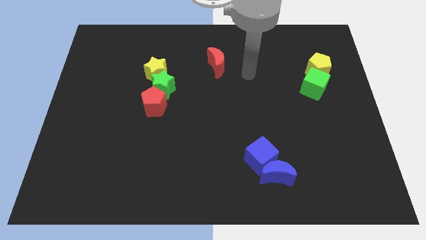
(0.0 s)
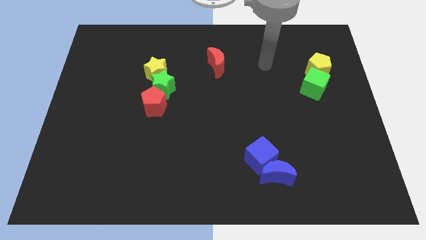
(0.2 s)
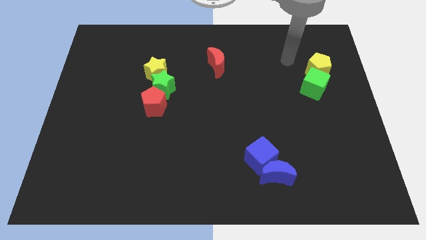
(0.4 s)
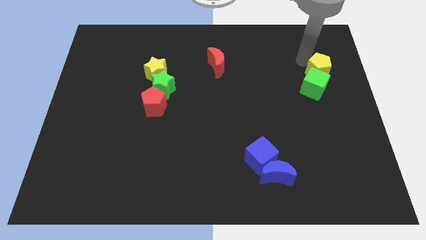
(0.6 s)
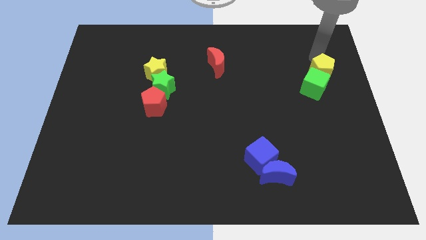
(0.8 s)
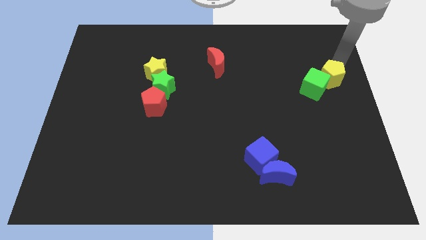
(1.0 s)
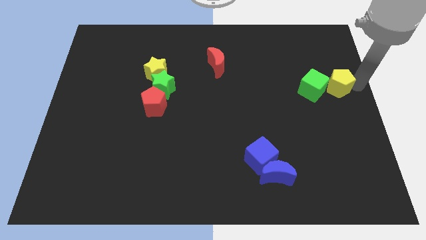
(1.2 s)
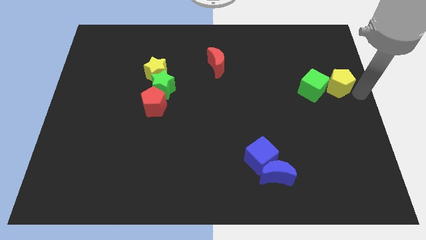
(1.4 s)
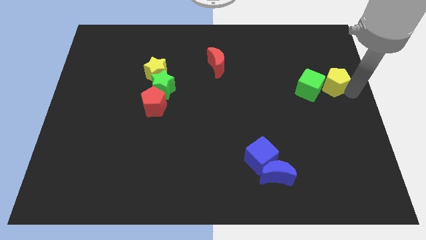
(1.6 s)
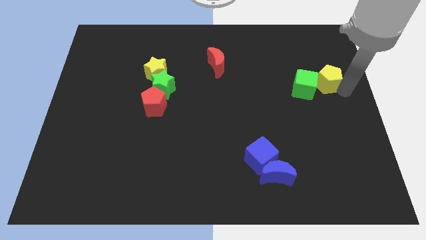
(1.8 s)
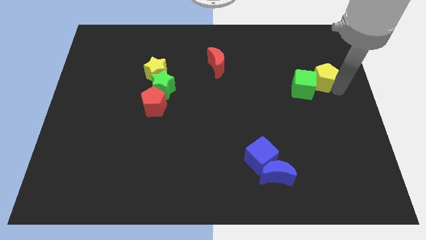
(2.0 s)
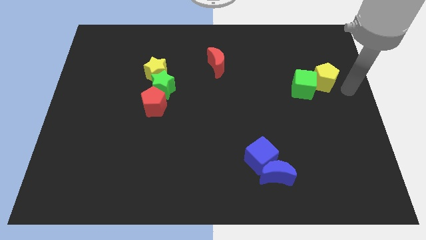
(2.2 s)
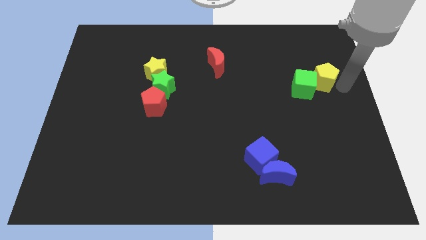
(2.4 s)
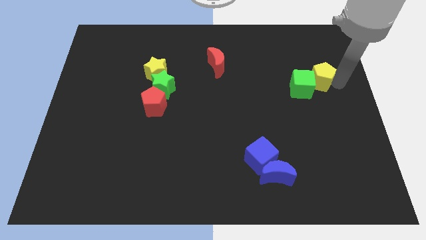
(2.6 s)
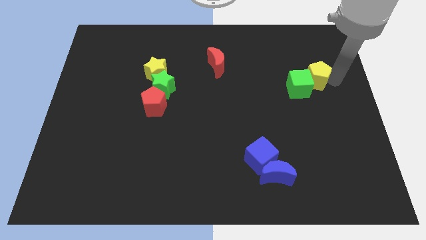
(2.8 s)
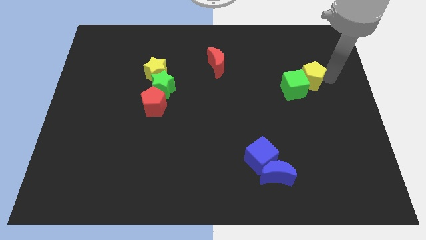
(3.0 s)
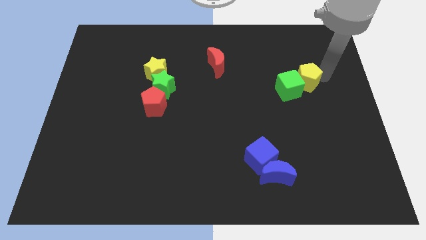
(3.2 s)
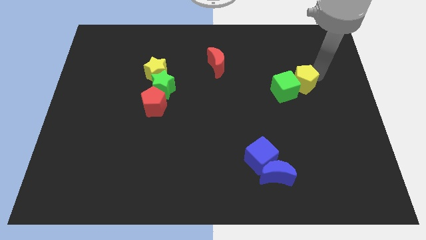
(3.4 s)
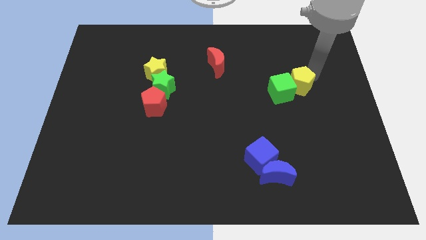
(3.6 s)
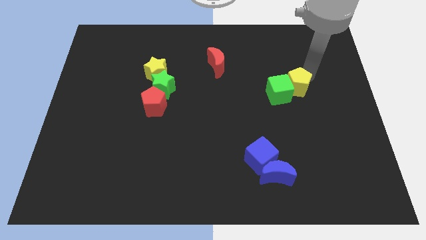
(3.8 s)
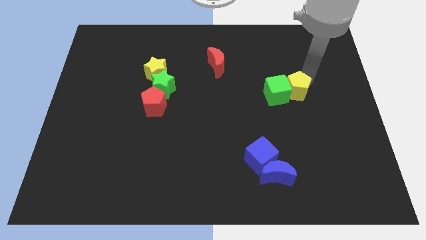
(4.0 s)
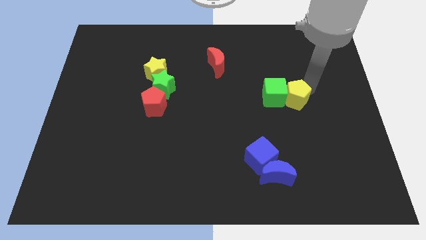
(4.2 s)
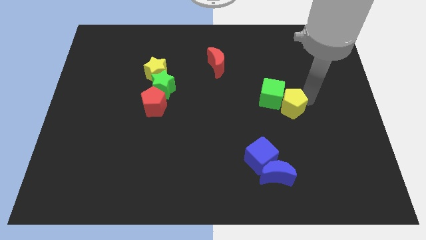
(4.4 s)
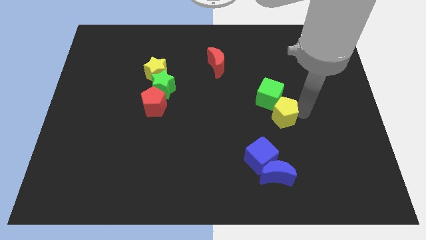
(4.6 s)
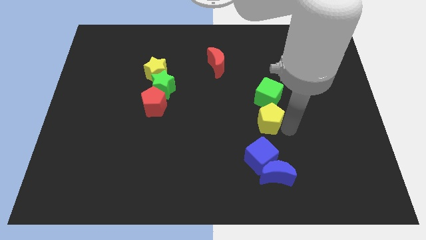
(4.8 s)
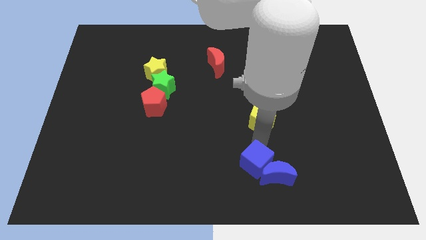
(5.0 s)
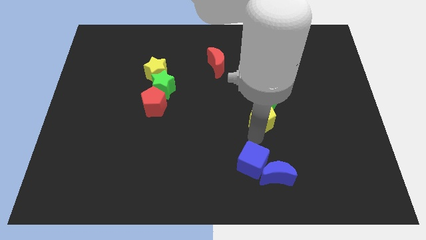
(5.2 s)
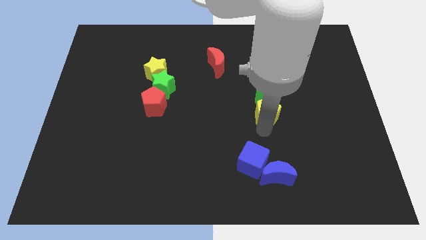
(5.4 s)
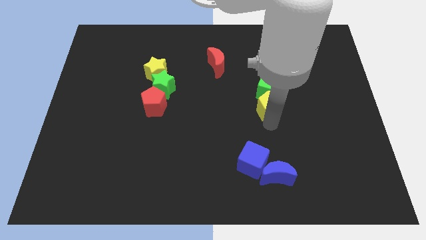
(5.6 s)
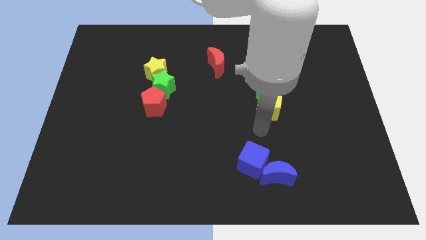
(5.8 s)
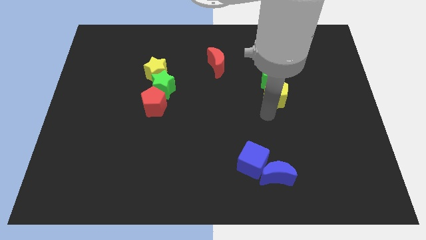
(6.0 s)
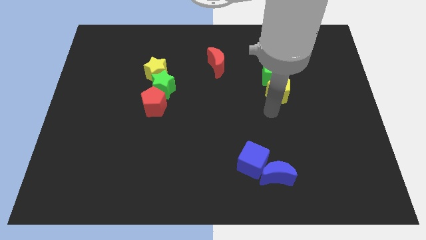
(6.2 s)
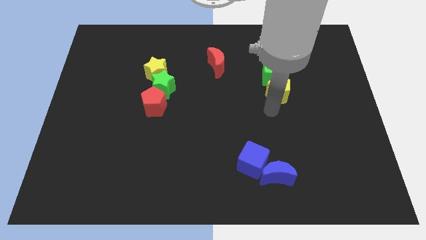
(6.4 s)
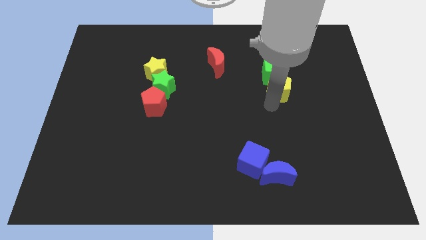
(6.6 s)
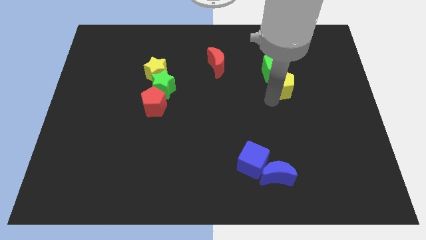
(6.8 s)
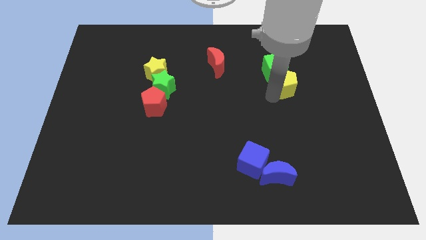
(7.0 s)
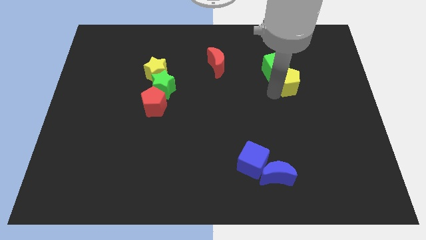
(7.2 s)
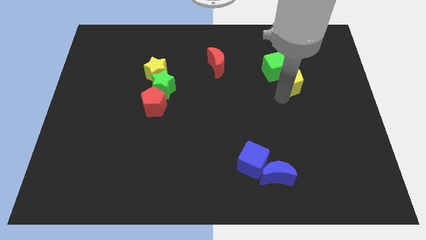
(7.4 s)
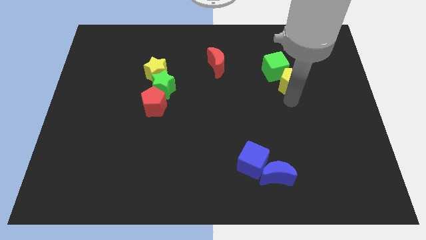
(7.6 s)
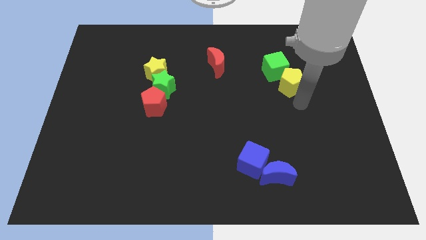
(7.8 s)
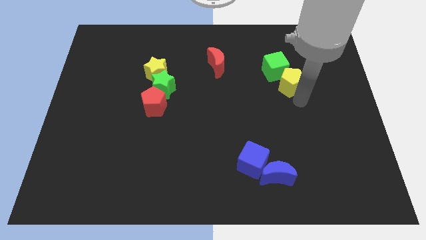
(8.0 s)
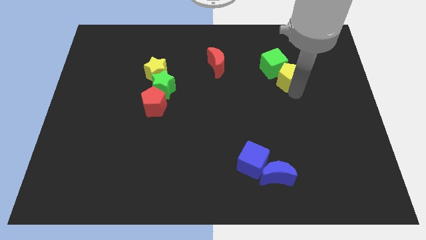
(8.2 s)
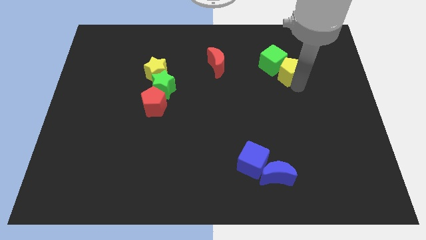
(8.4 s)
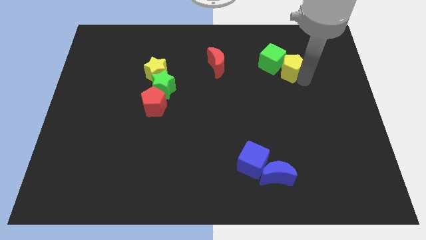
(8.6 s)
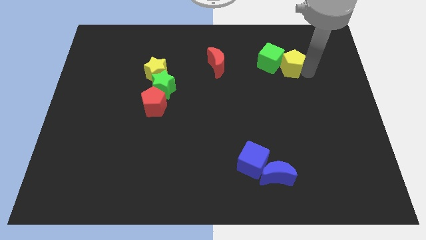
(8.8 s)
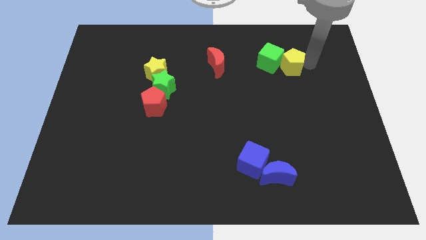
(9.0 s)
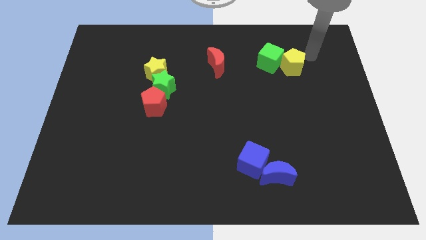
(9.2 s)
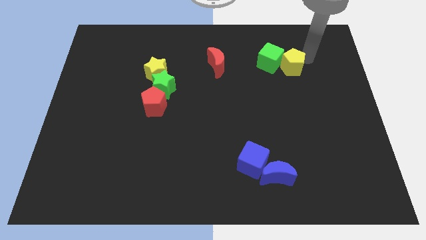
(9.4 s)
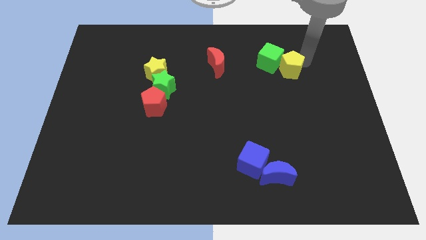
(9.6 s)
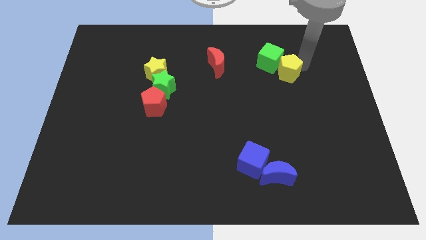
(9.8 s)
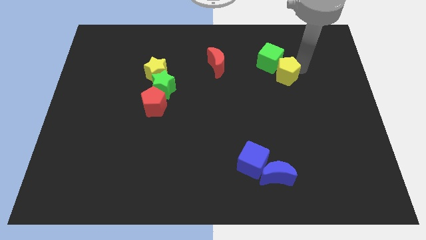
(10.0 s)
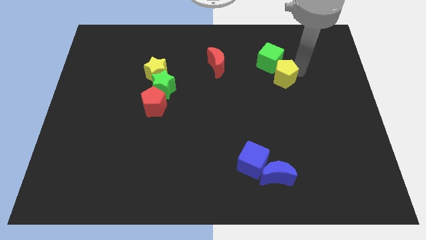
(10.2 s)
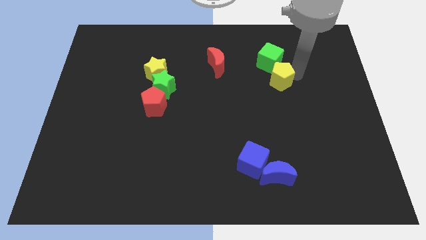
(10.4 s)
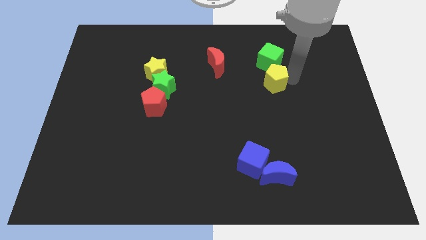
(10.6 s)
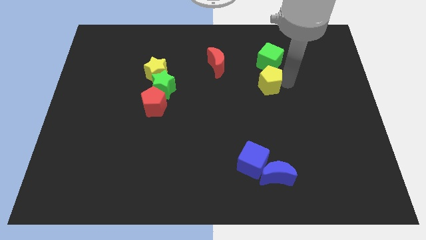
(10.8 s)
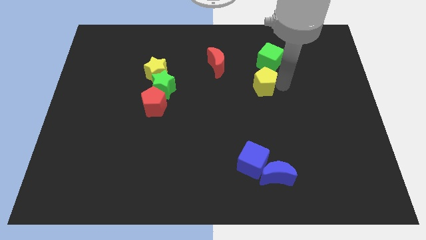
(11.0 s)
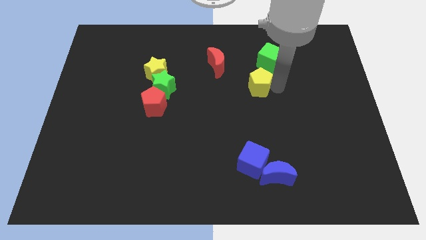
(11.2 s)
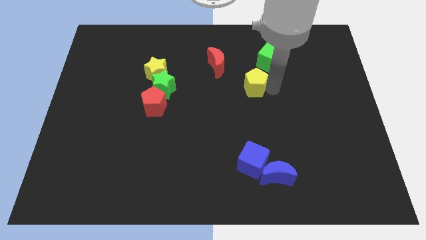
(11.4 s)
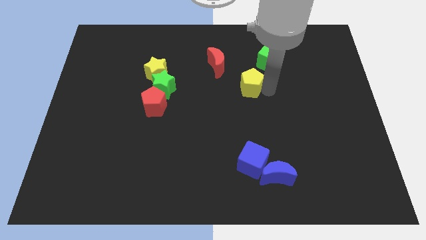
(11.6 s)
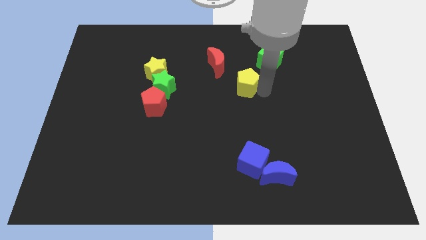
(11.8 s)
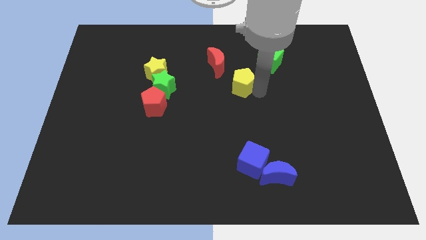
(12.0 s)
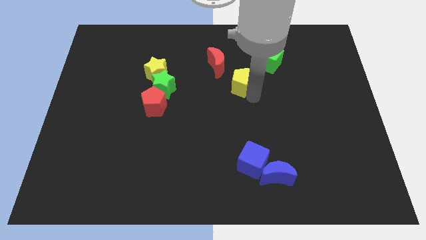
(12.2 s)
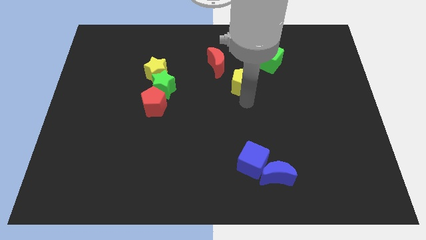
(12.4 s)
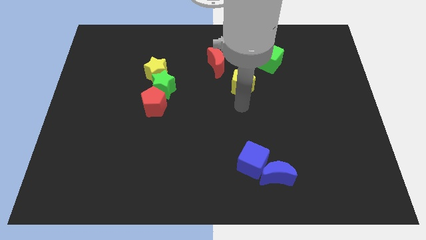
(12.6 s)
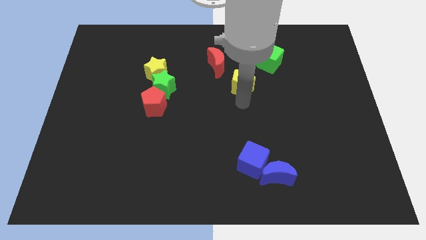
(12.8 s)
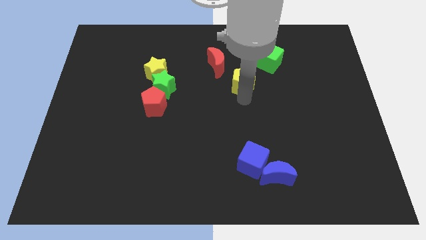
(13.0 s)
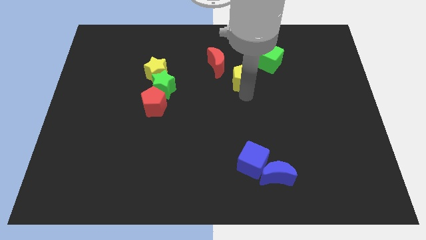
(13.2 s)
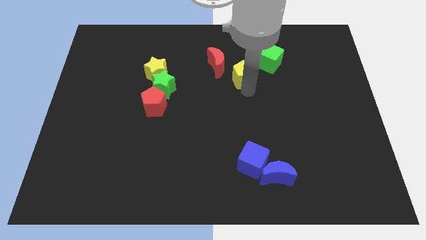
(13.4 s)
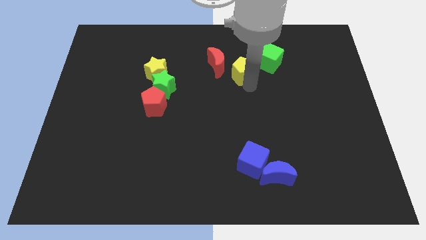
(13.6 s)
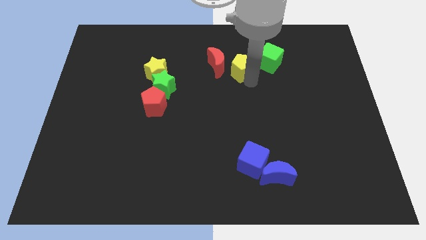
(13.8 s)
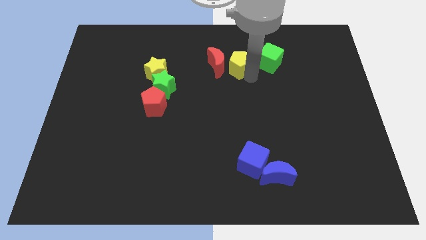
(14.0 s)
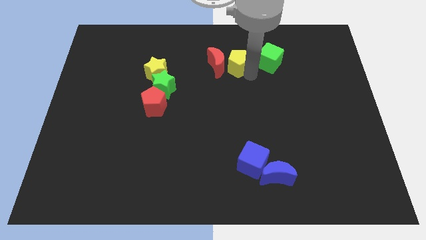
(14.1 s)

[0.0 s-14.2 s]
push the yellow pentagon to the left

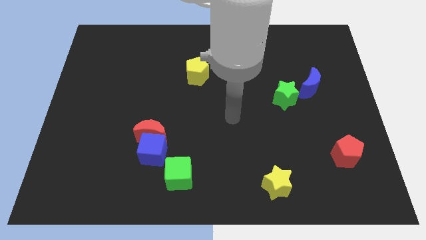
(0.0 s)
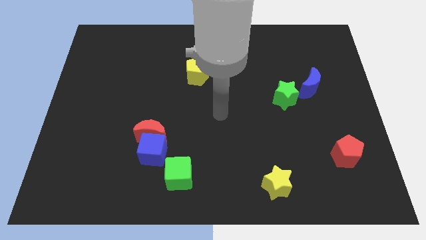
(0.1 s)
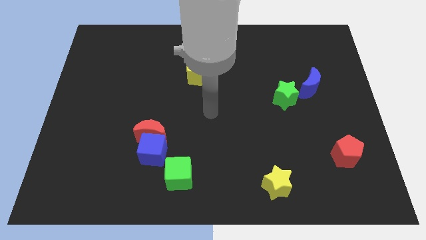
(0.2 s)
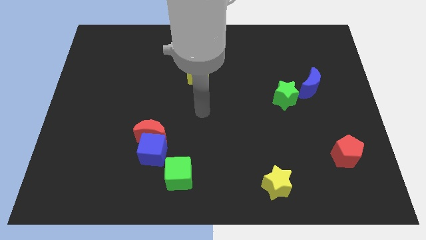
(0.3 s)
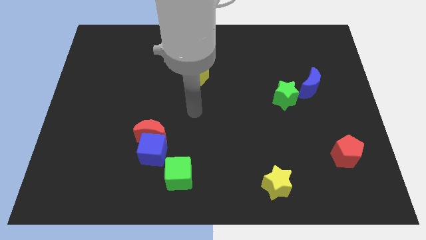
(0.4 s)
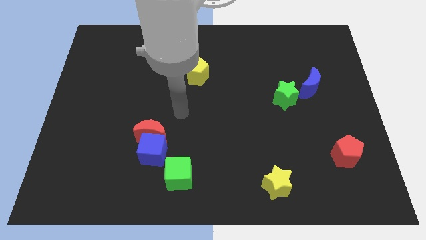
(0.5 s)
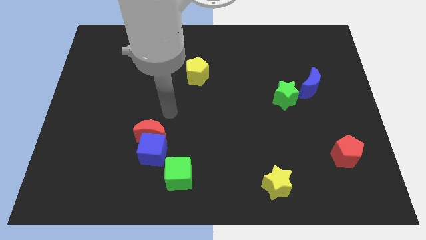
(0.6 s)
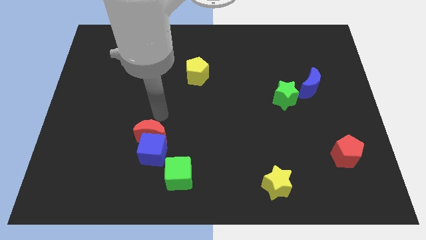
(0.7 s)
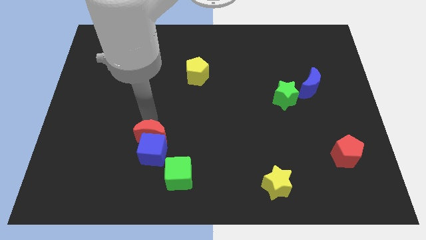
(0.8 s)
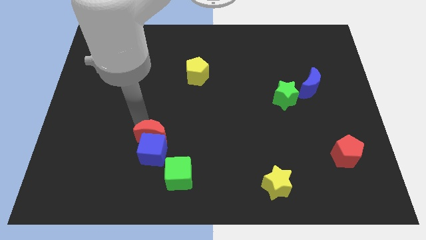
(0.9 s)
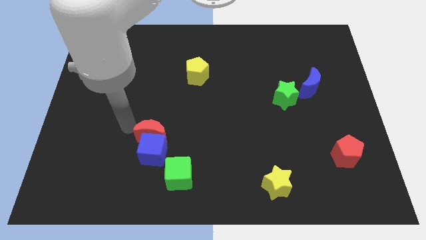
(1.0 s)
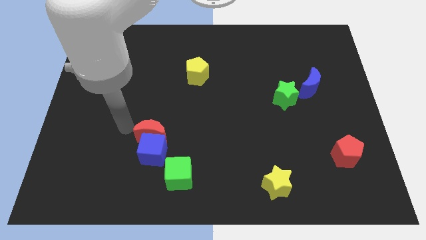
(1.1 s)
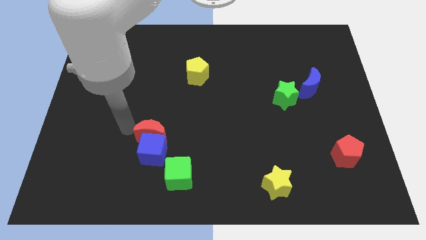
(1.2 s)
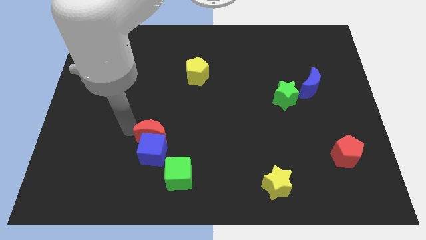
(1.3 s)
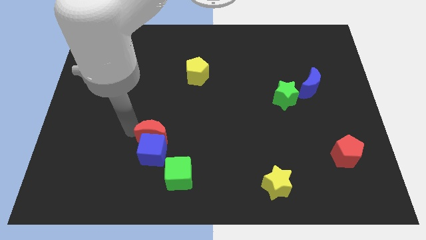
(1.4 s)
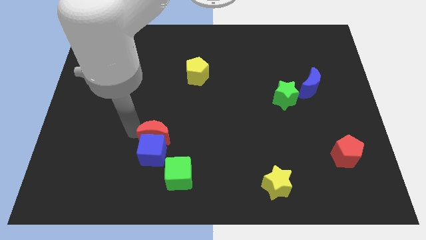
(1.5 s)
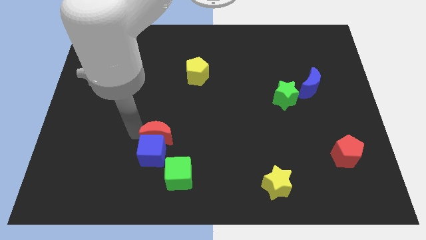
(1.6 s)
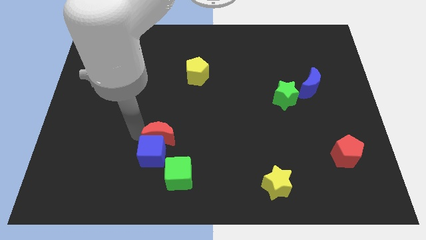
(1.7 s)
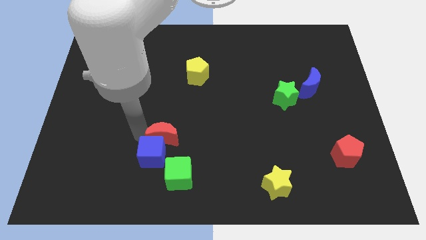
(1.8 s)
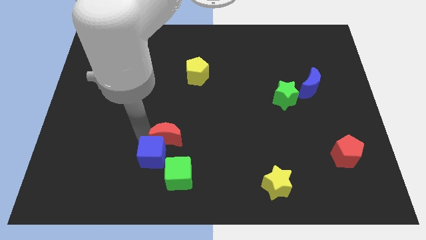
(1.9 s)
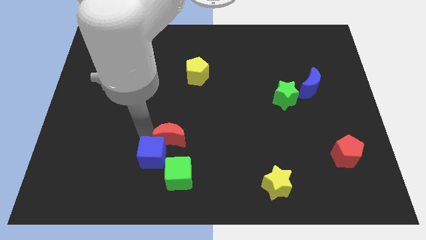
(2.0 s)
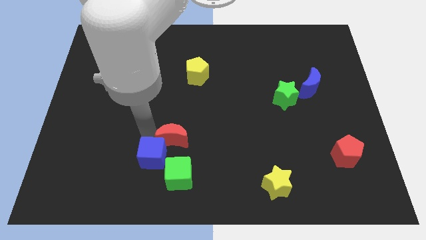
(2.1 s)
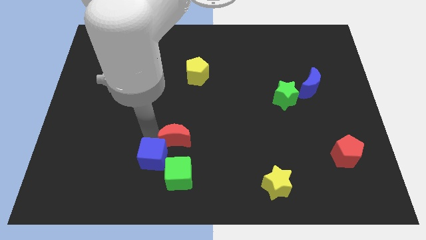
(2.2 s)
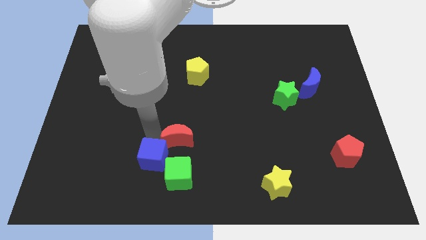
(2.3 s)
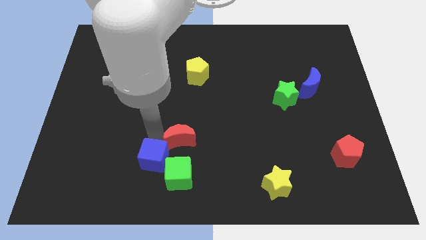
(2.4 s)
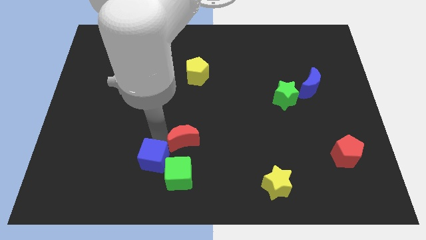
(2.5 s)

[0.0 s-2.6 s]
slide the red moon right a little bit
